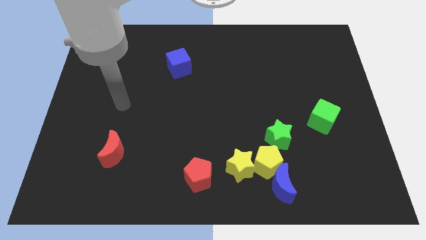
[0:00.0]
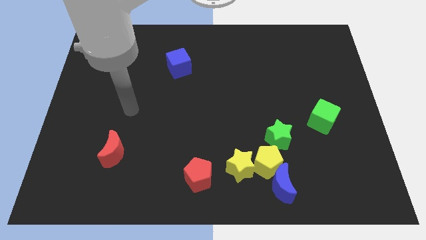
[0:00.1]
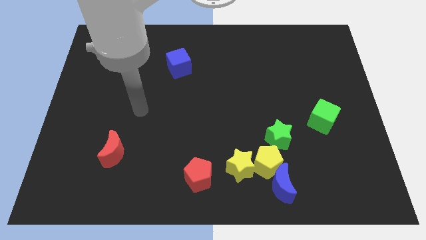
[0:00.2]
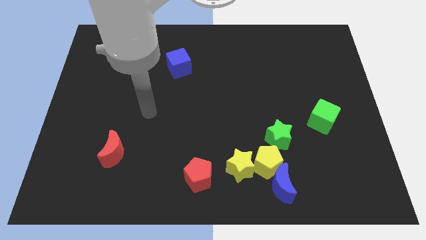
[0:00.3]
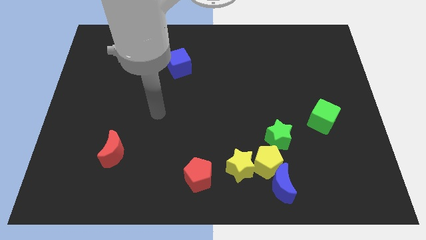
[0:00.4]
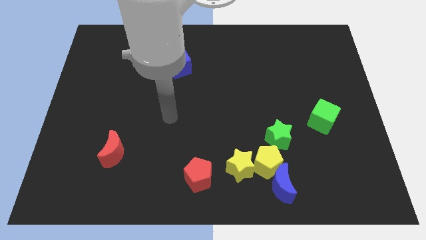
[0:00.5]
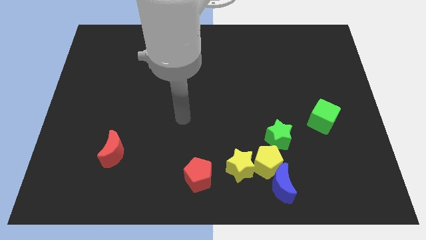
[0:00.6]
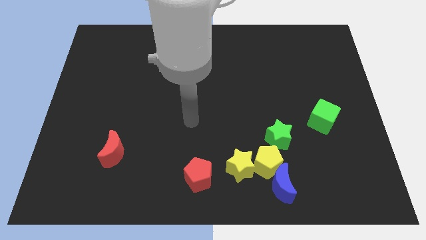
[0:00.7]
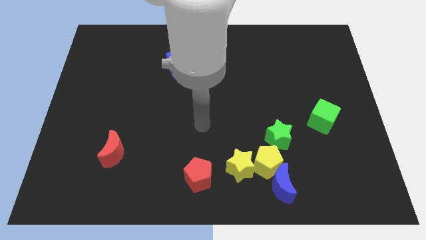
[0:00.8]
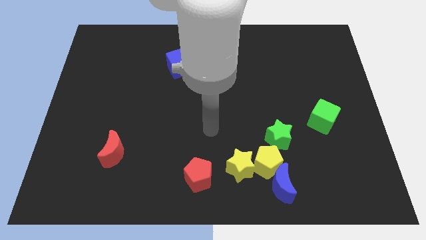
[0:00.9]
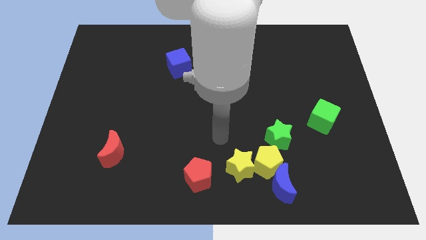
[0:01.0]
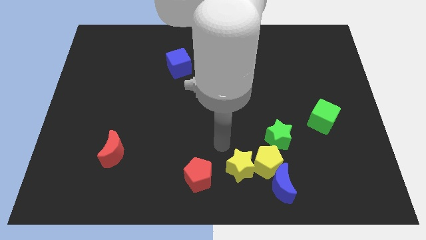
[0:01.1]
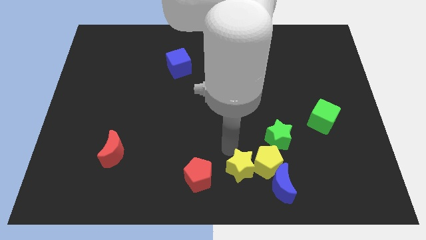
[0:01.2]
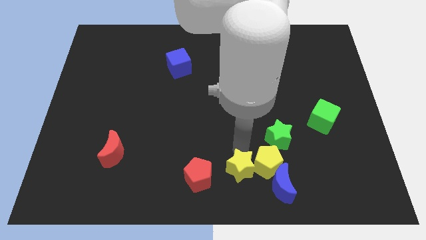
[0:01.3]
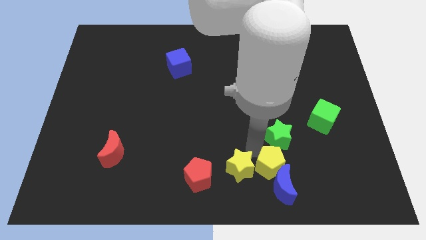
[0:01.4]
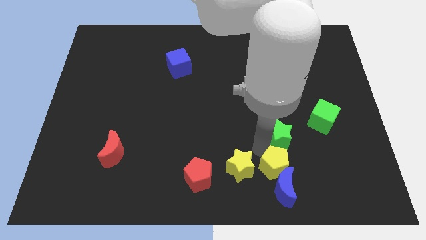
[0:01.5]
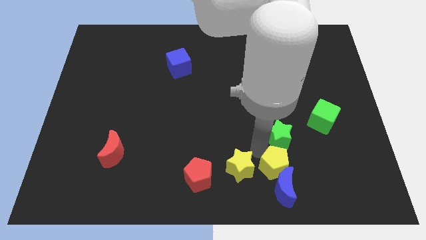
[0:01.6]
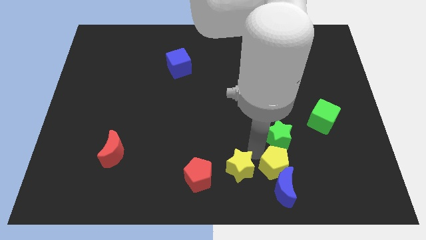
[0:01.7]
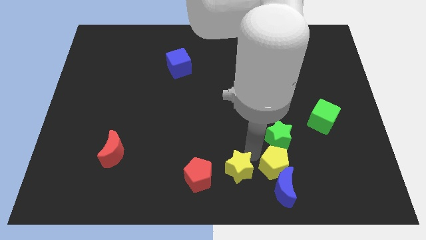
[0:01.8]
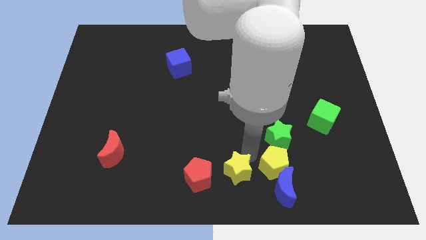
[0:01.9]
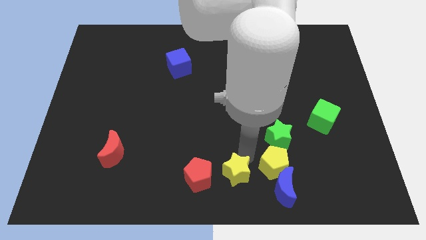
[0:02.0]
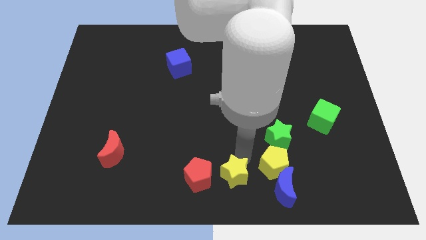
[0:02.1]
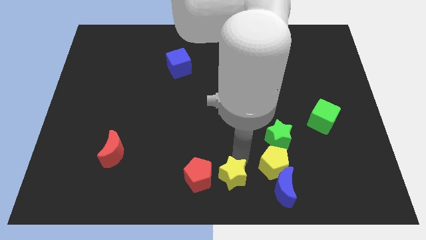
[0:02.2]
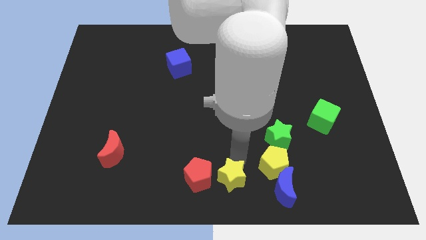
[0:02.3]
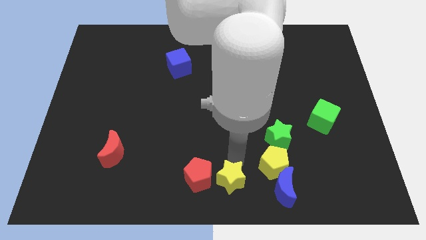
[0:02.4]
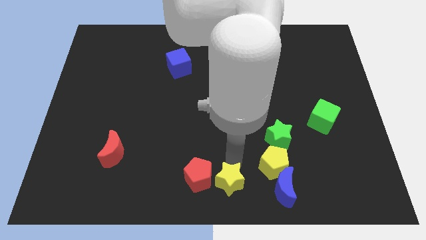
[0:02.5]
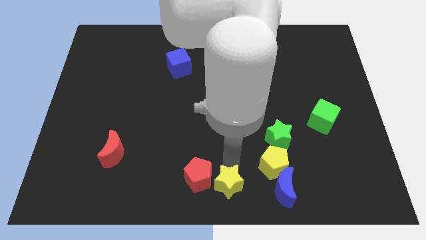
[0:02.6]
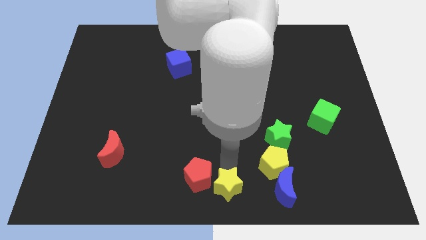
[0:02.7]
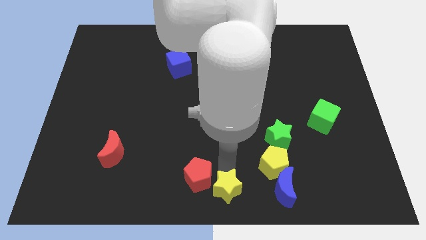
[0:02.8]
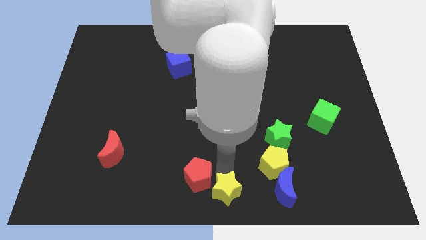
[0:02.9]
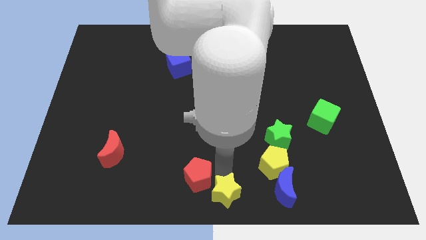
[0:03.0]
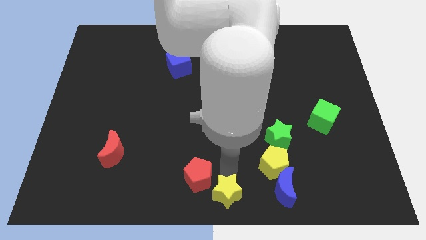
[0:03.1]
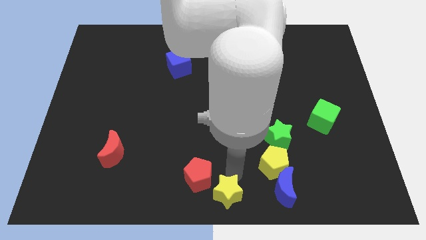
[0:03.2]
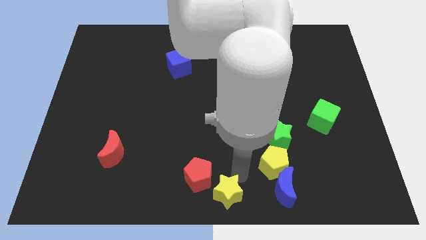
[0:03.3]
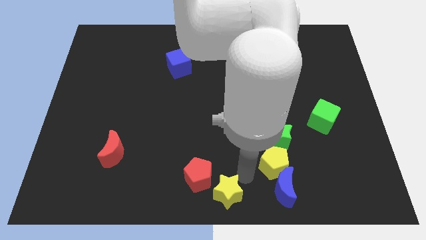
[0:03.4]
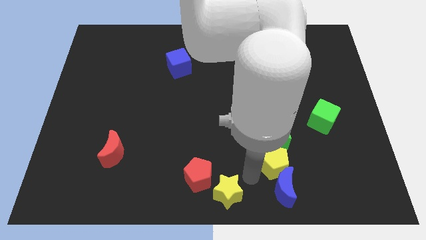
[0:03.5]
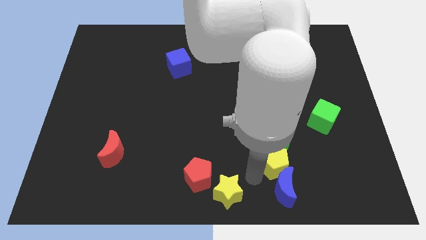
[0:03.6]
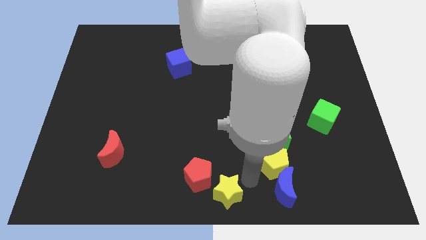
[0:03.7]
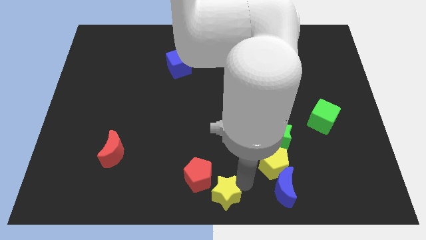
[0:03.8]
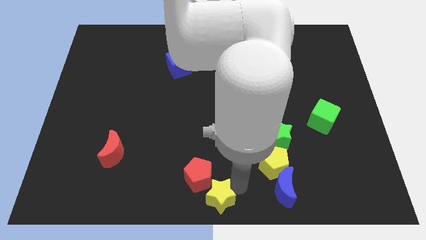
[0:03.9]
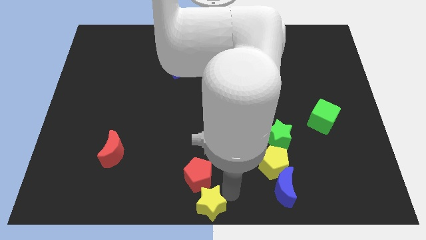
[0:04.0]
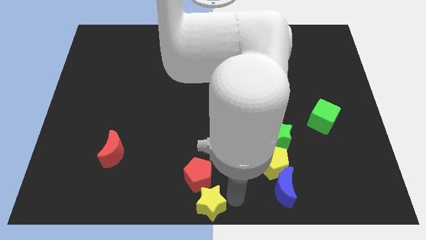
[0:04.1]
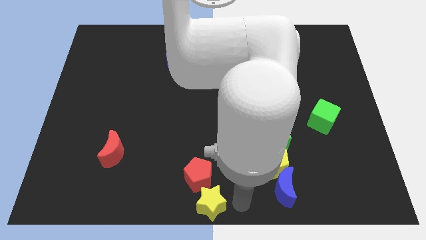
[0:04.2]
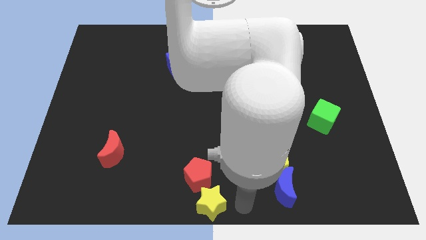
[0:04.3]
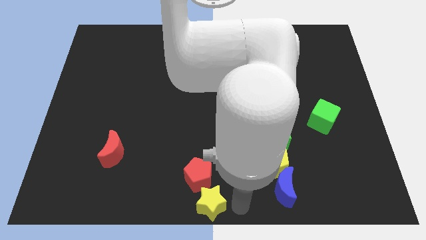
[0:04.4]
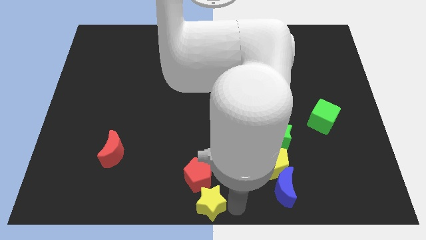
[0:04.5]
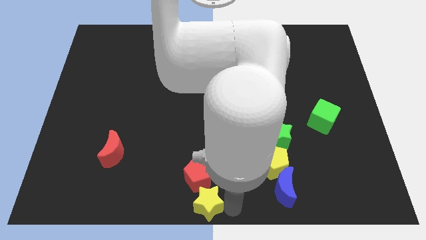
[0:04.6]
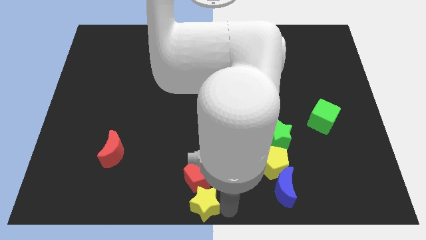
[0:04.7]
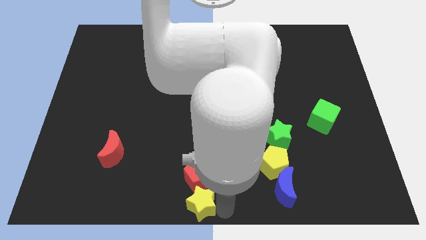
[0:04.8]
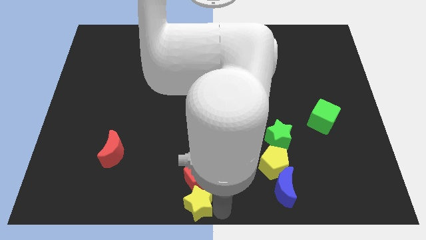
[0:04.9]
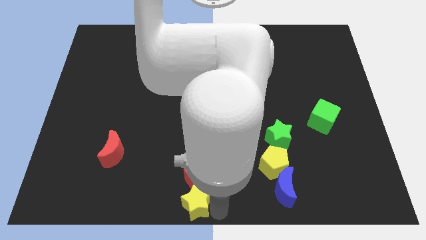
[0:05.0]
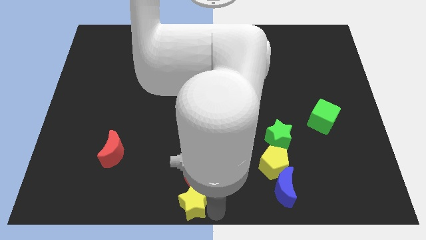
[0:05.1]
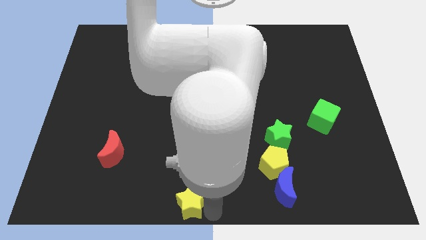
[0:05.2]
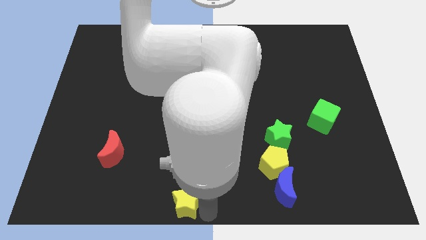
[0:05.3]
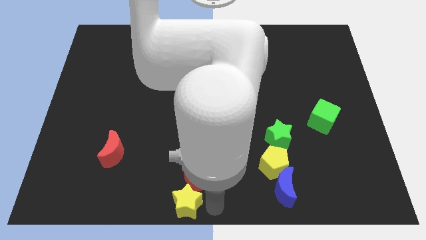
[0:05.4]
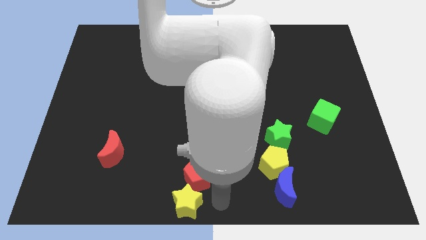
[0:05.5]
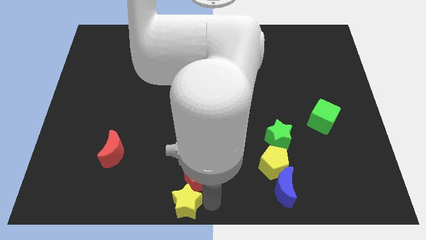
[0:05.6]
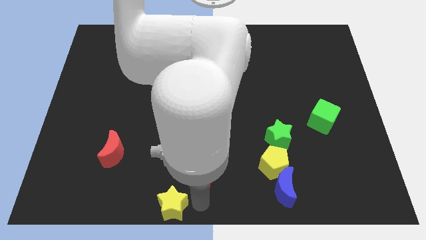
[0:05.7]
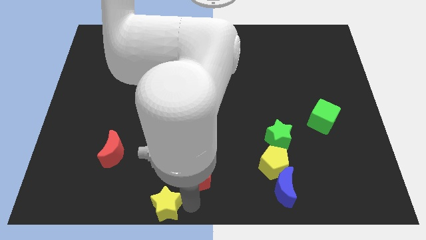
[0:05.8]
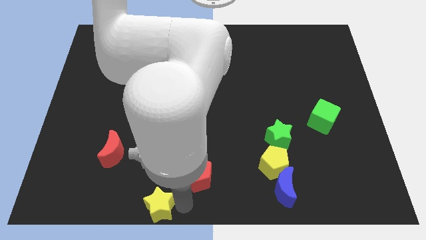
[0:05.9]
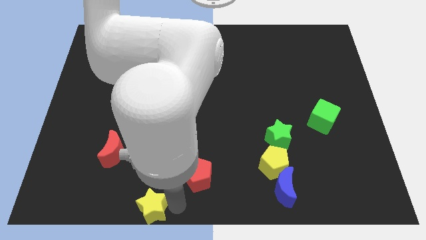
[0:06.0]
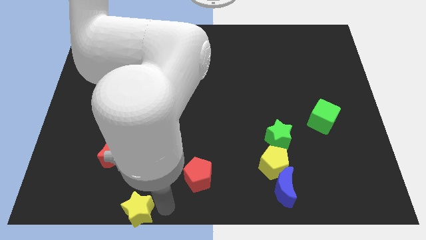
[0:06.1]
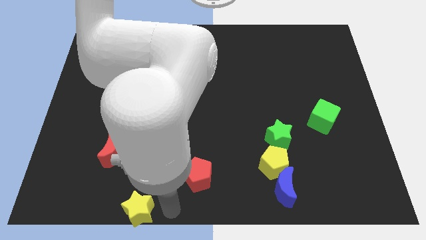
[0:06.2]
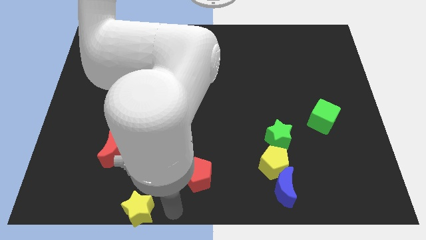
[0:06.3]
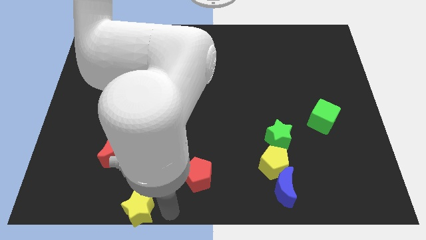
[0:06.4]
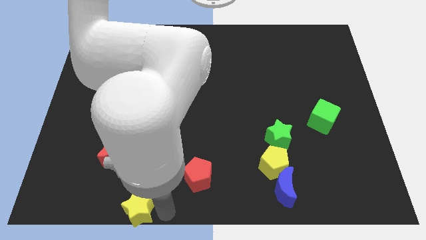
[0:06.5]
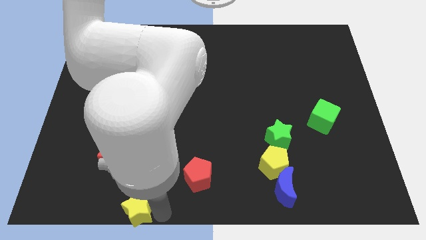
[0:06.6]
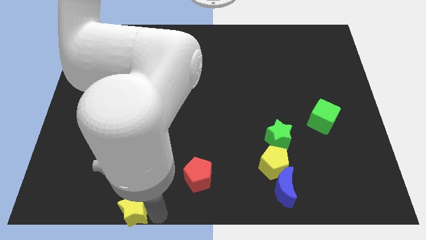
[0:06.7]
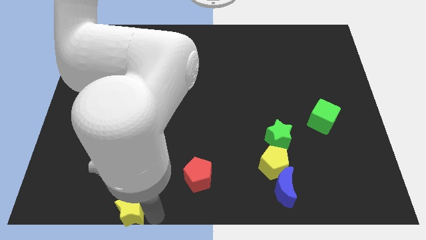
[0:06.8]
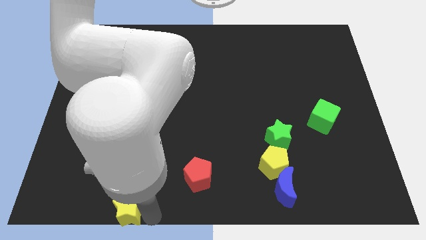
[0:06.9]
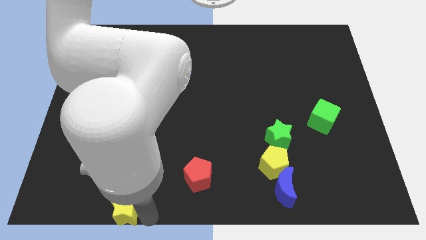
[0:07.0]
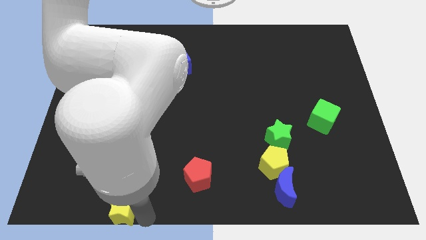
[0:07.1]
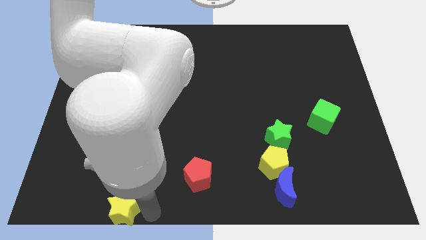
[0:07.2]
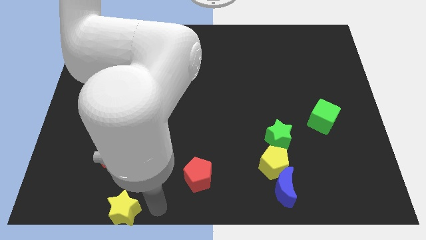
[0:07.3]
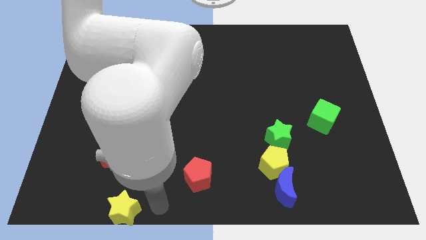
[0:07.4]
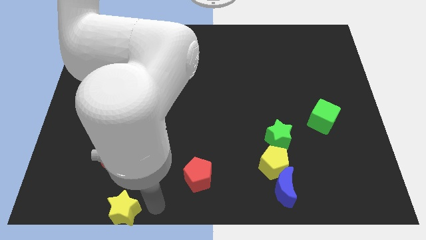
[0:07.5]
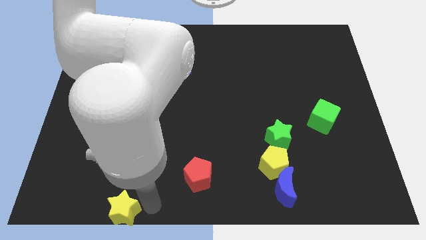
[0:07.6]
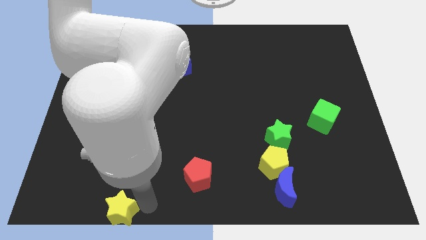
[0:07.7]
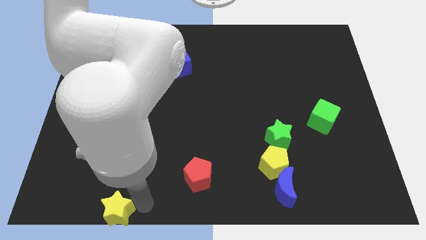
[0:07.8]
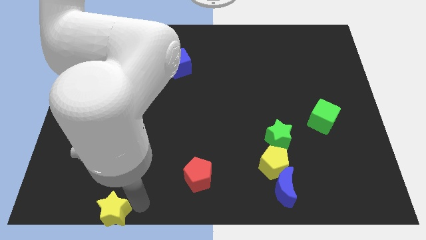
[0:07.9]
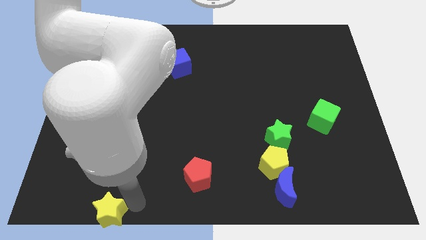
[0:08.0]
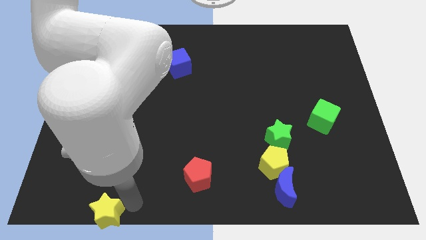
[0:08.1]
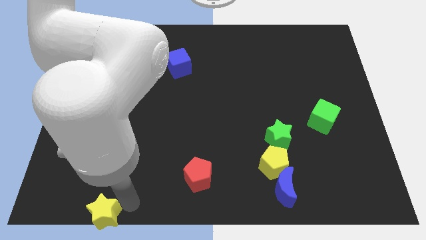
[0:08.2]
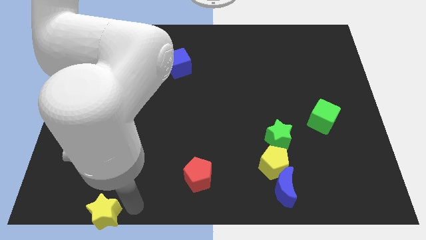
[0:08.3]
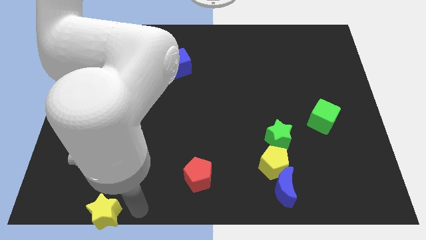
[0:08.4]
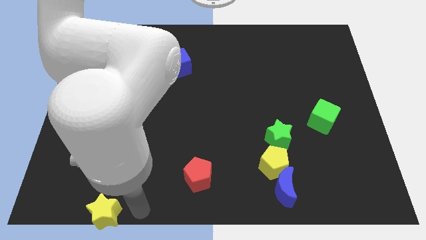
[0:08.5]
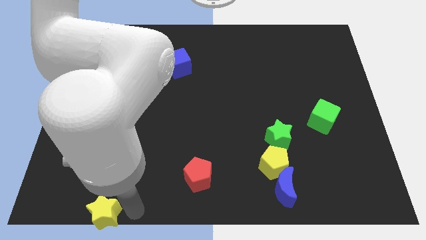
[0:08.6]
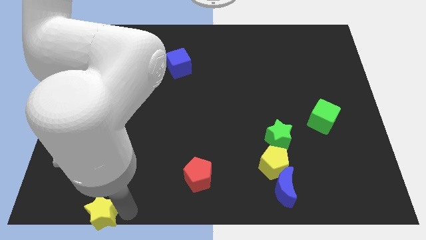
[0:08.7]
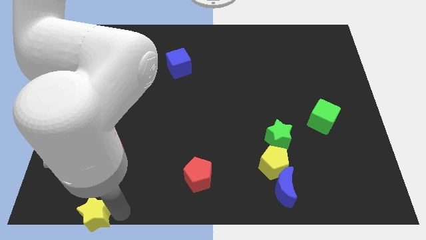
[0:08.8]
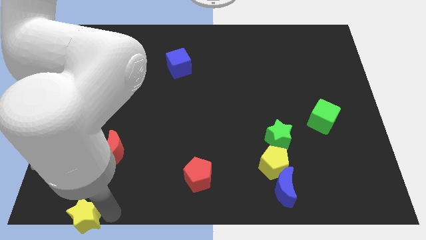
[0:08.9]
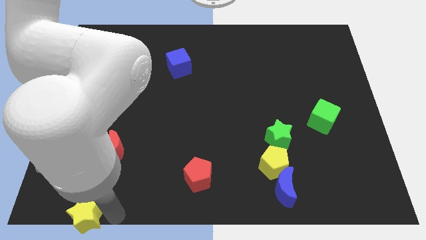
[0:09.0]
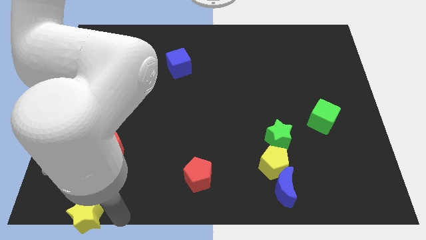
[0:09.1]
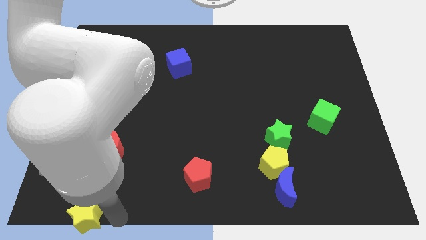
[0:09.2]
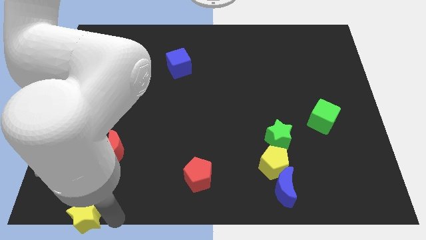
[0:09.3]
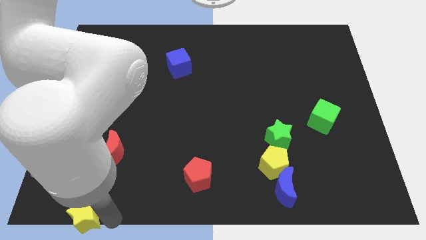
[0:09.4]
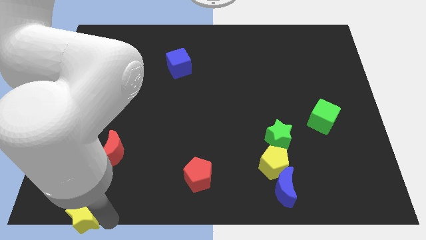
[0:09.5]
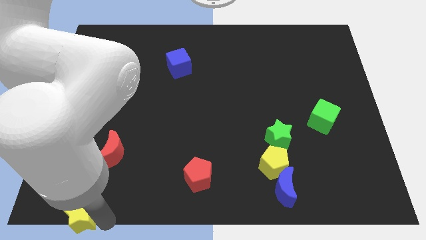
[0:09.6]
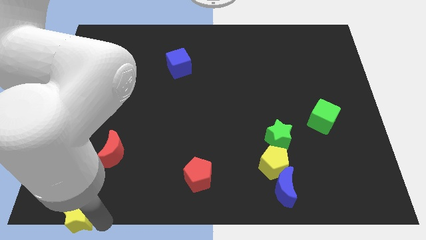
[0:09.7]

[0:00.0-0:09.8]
put the yellow star to the bottom left
